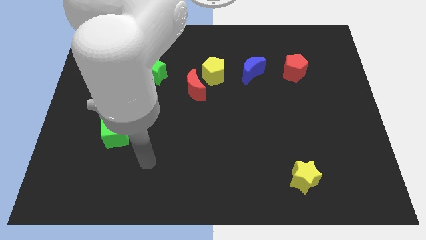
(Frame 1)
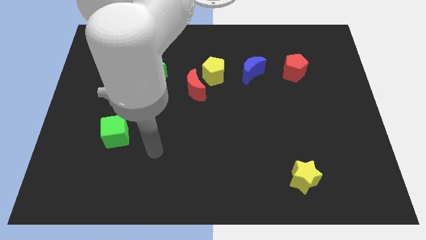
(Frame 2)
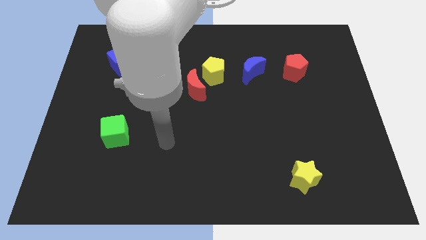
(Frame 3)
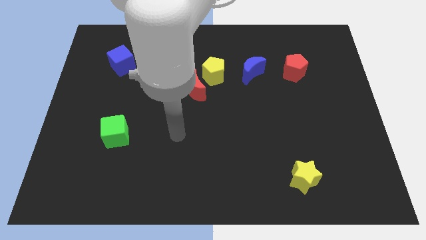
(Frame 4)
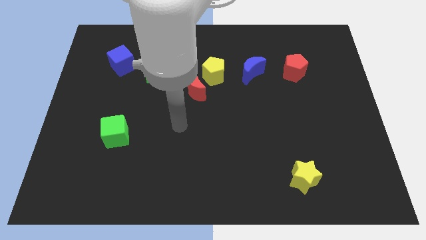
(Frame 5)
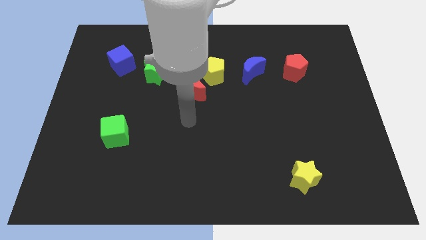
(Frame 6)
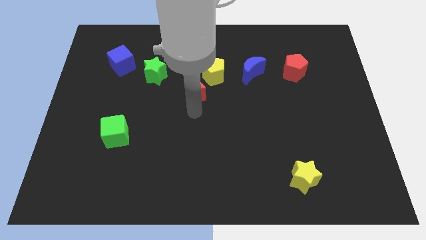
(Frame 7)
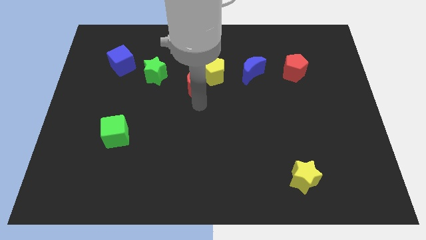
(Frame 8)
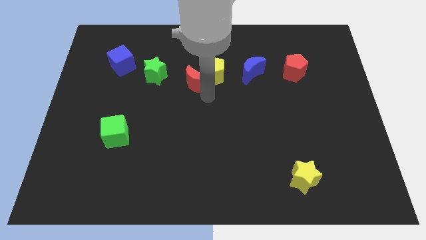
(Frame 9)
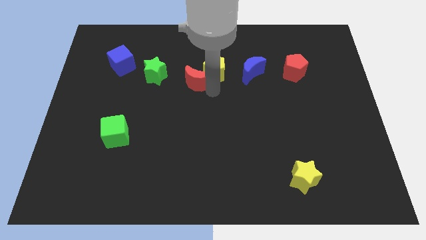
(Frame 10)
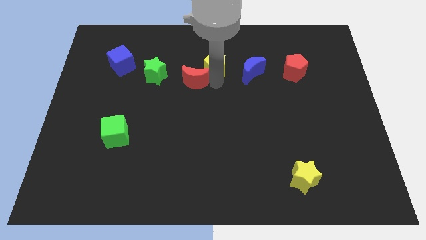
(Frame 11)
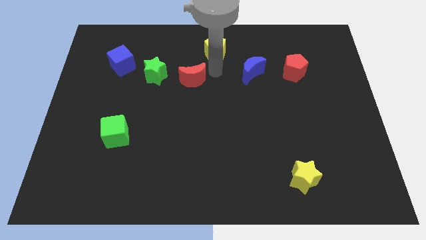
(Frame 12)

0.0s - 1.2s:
separate the red moon from the yellow pentagon

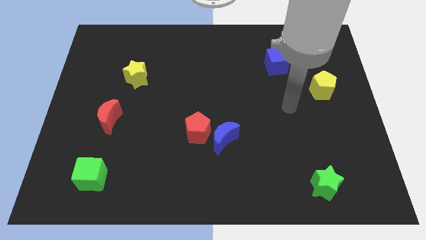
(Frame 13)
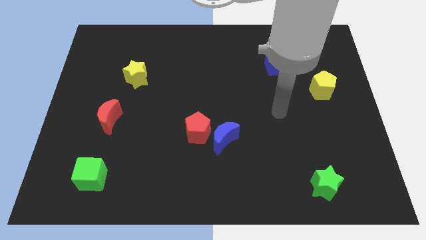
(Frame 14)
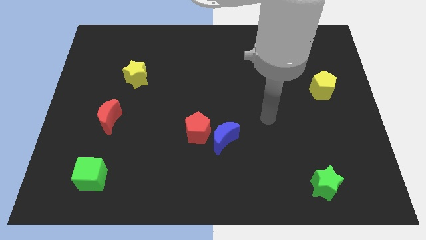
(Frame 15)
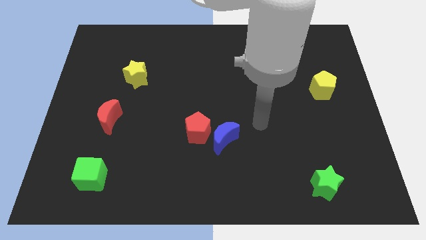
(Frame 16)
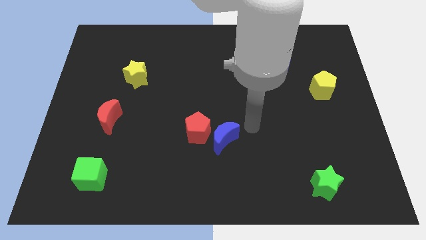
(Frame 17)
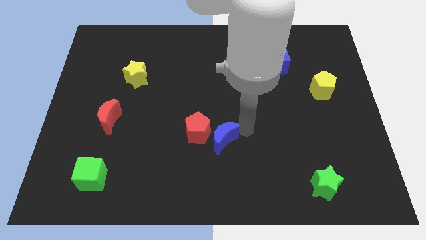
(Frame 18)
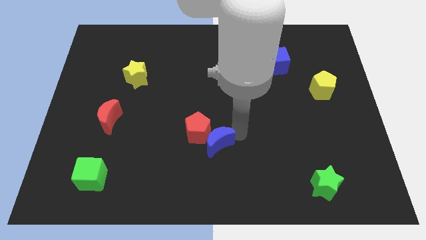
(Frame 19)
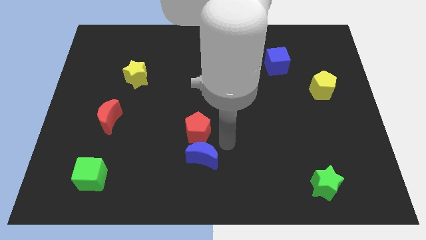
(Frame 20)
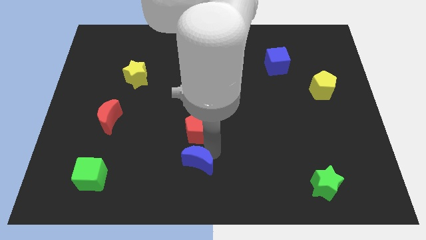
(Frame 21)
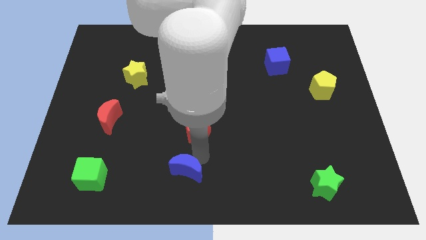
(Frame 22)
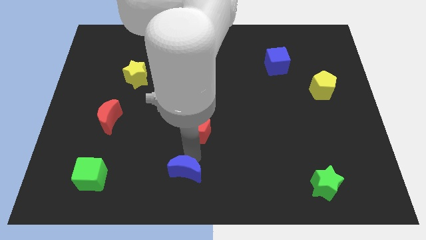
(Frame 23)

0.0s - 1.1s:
pull the red pentagon apart from the blue moon

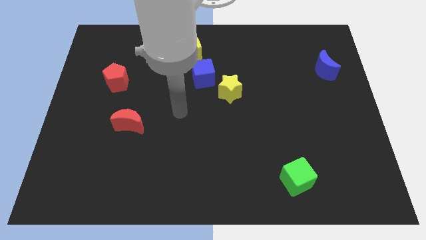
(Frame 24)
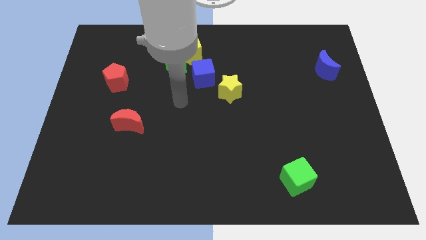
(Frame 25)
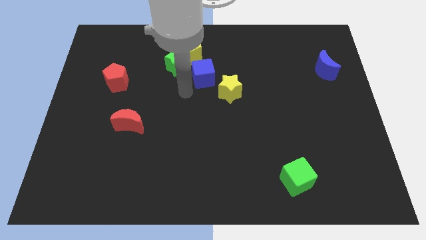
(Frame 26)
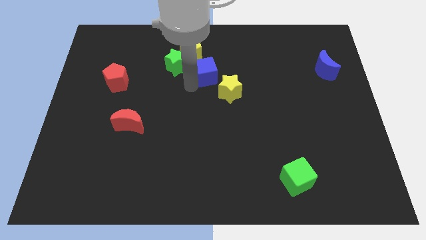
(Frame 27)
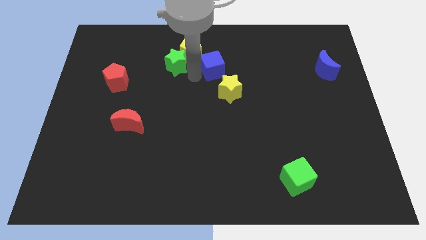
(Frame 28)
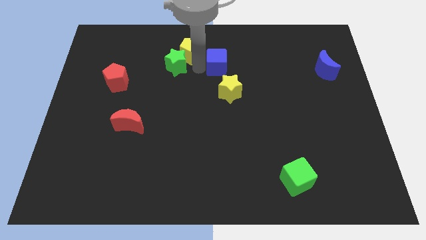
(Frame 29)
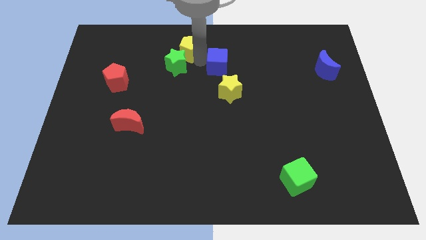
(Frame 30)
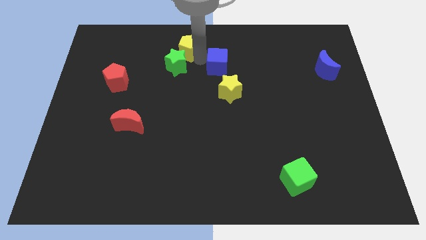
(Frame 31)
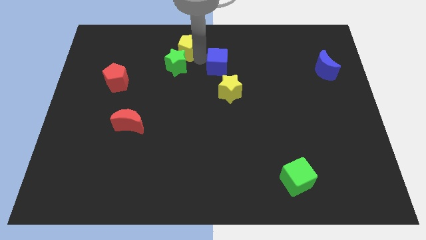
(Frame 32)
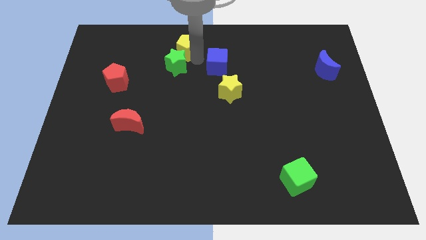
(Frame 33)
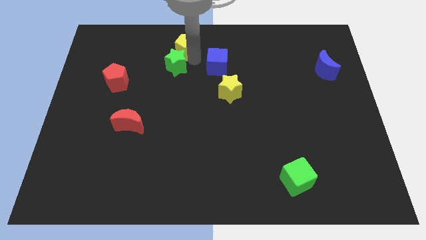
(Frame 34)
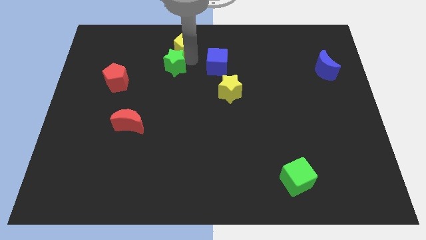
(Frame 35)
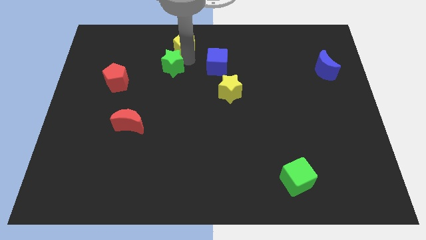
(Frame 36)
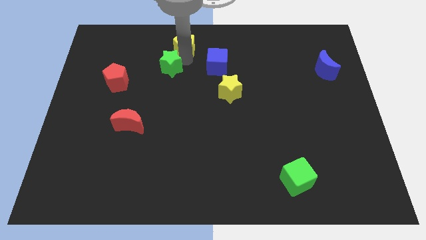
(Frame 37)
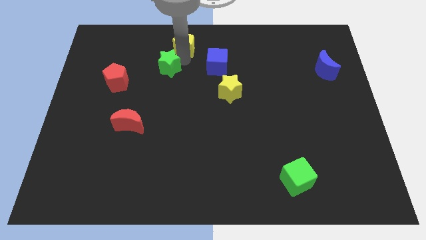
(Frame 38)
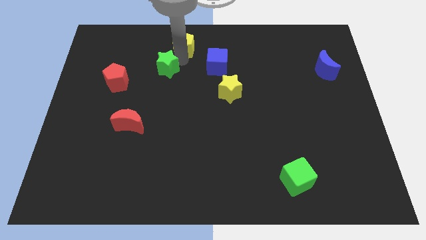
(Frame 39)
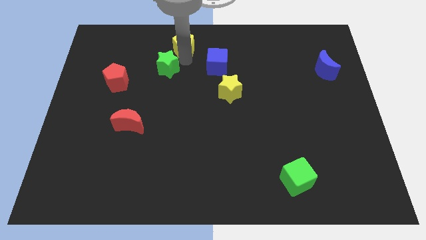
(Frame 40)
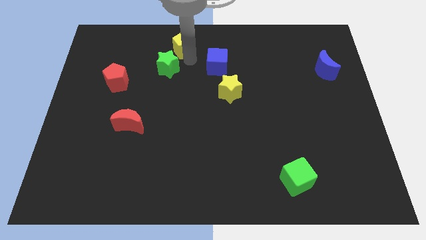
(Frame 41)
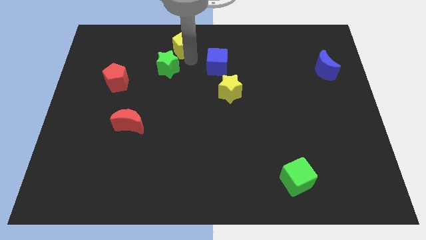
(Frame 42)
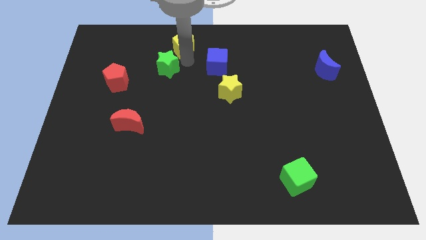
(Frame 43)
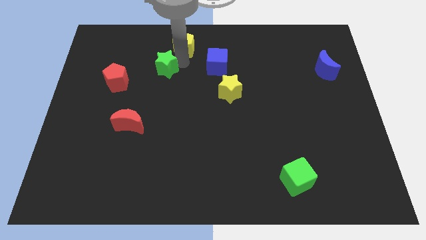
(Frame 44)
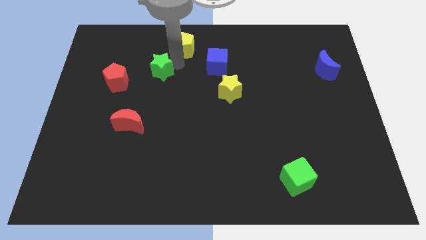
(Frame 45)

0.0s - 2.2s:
separate the green star from the yellow pentagon and blue cube

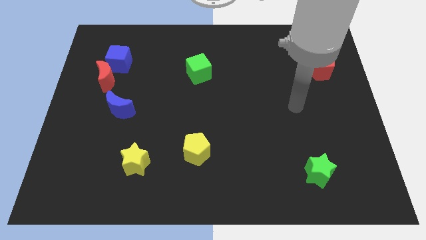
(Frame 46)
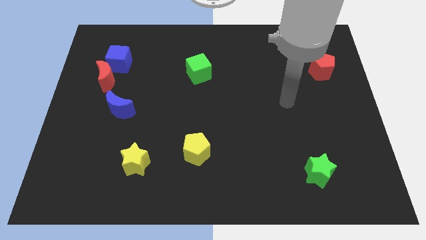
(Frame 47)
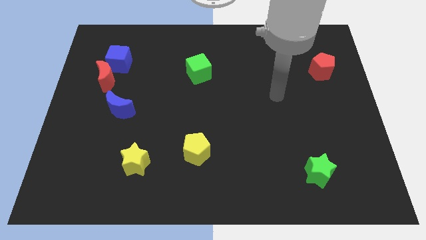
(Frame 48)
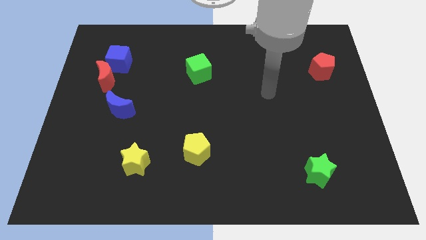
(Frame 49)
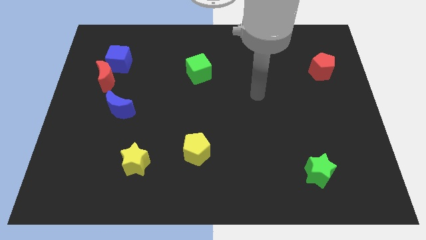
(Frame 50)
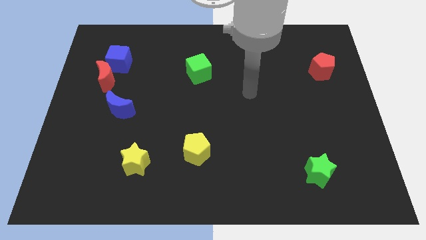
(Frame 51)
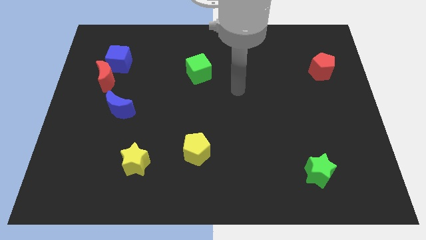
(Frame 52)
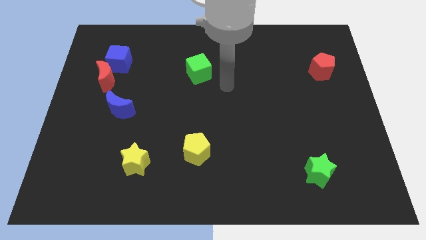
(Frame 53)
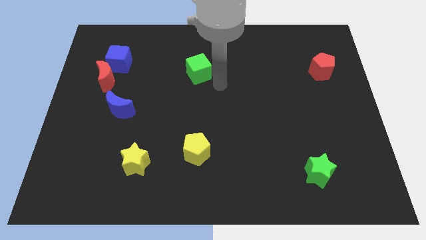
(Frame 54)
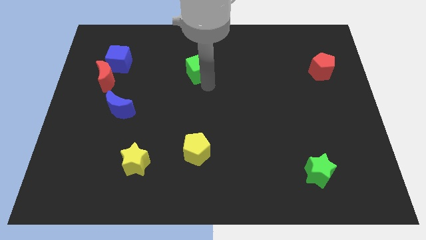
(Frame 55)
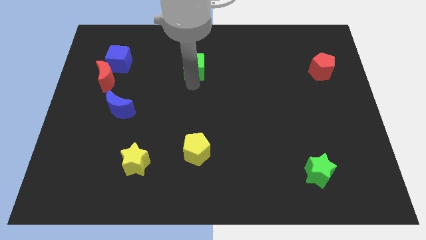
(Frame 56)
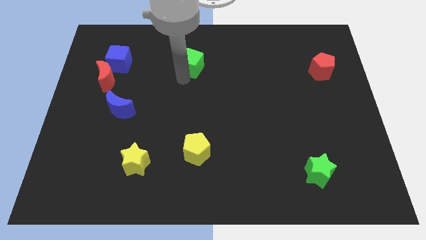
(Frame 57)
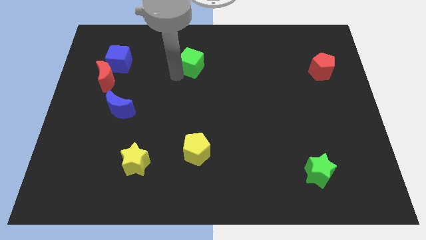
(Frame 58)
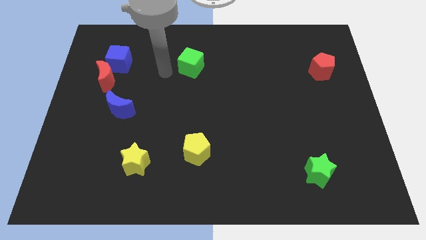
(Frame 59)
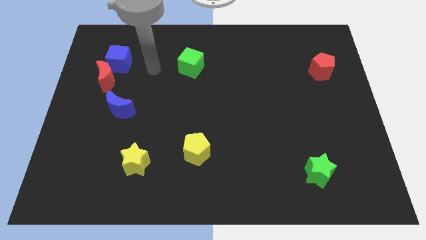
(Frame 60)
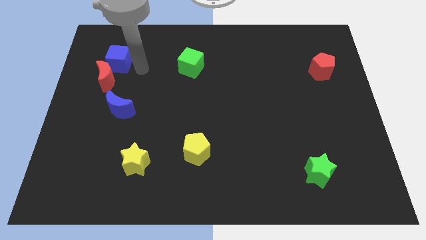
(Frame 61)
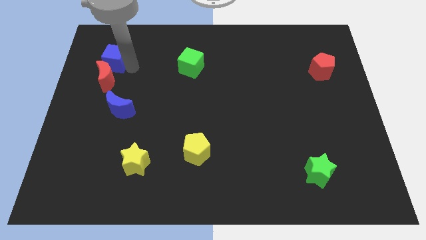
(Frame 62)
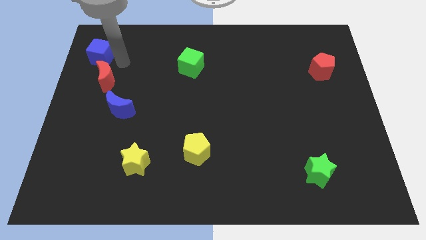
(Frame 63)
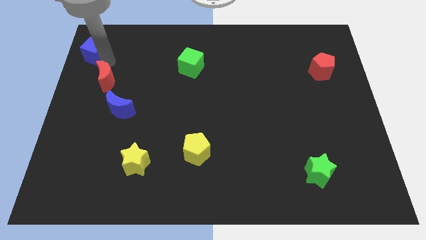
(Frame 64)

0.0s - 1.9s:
pull the red moon apart from the blue cube

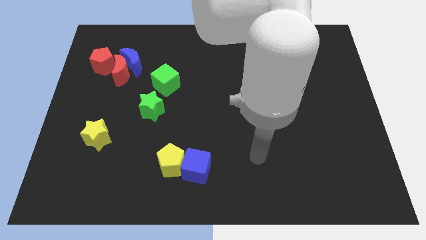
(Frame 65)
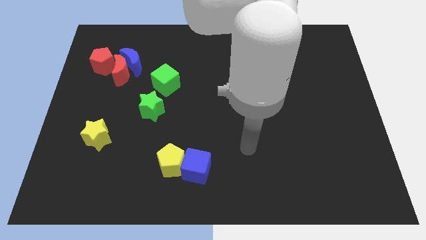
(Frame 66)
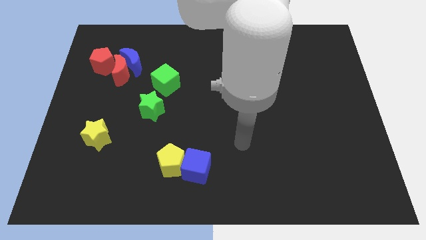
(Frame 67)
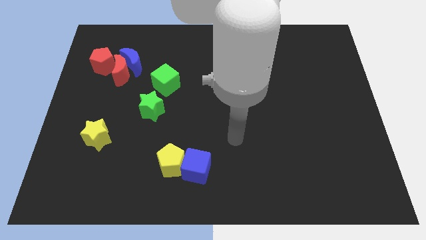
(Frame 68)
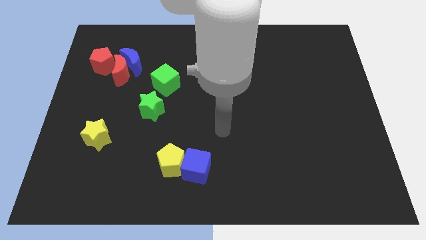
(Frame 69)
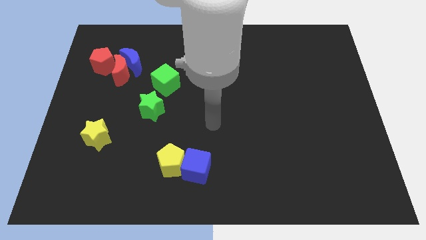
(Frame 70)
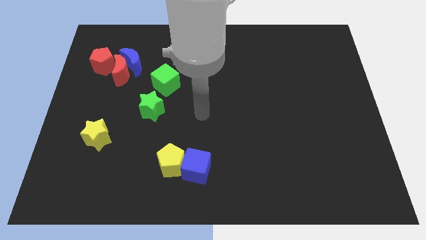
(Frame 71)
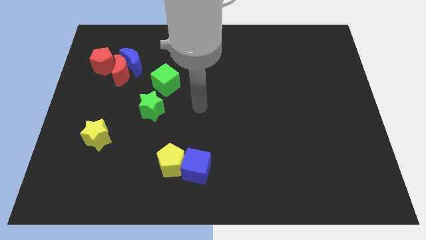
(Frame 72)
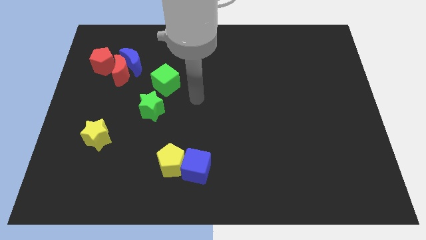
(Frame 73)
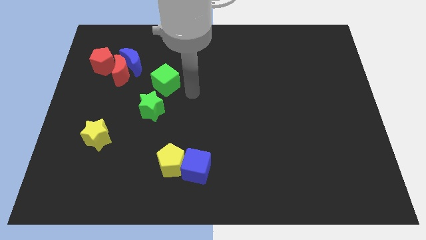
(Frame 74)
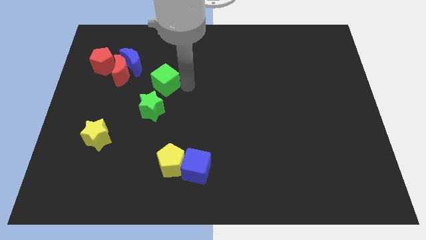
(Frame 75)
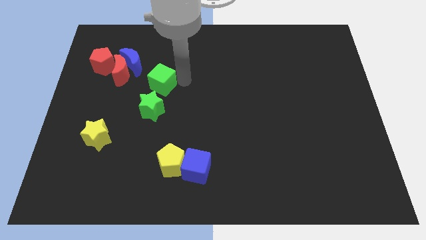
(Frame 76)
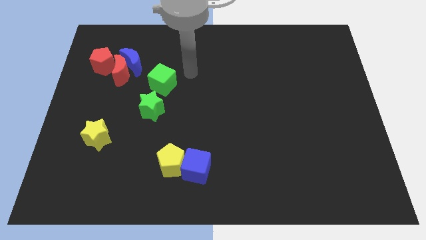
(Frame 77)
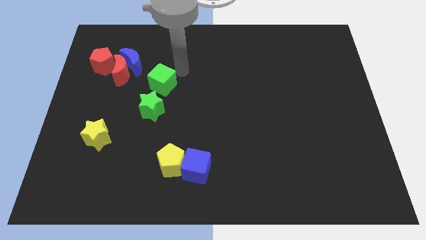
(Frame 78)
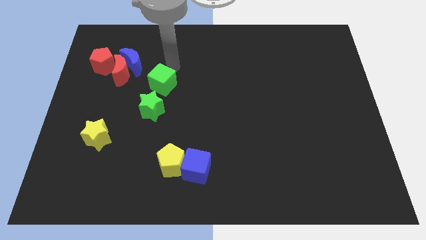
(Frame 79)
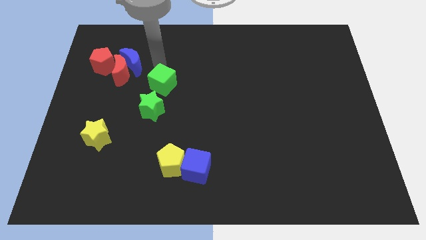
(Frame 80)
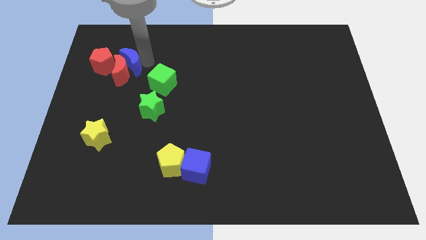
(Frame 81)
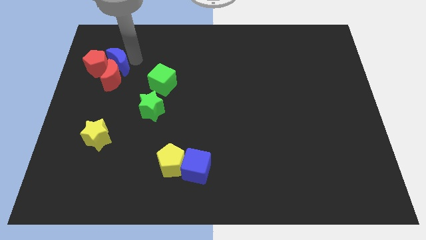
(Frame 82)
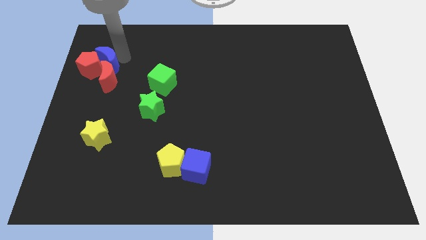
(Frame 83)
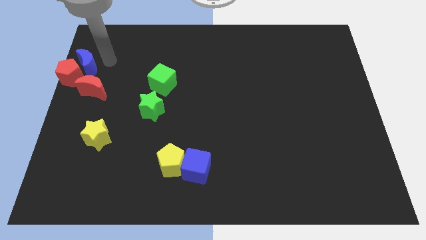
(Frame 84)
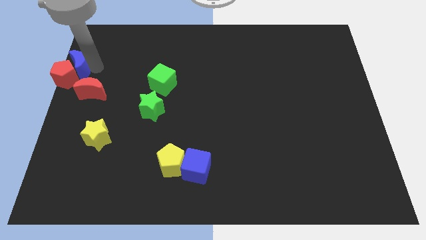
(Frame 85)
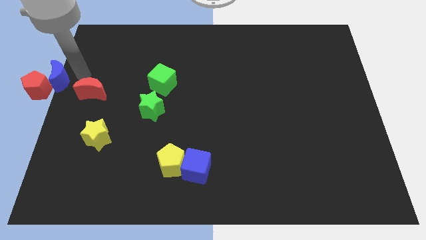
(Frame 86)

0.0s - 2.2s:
pull the red moon apart from the blue moon and red pentagon

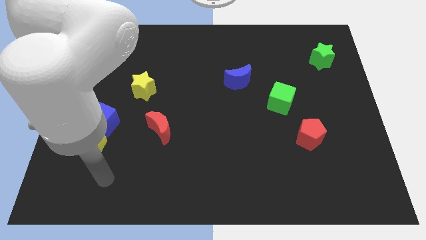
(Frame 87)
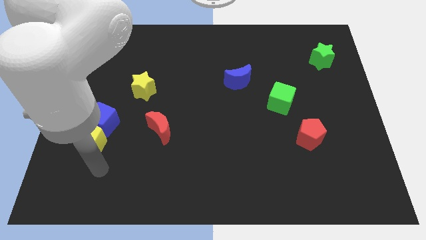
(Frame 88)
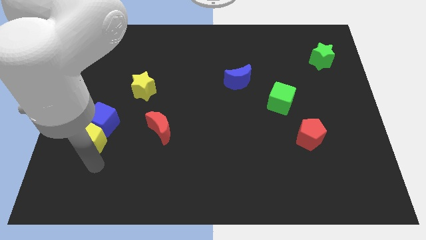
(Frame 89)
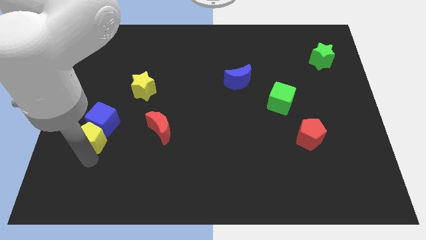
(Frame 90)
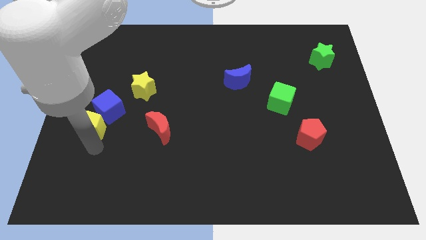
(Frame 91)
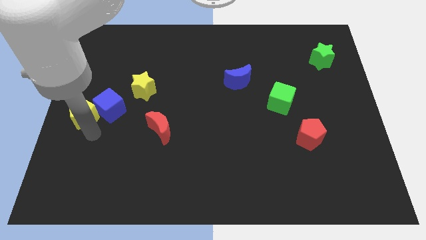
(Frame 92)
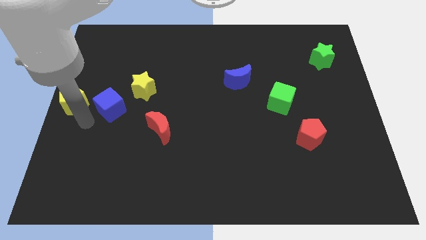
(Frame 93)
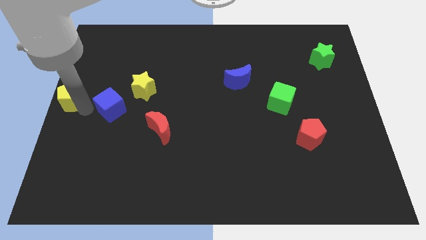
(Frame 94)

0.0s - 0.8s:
separate the blue cube from the yellow pentagon

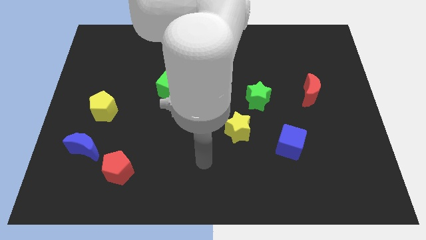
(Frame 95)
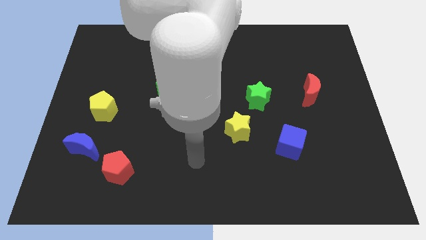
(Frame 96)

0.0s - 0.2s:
move the red pentagon away from the blue moon
